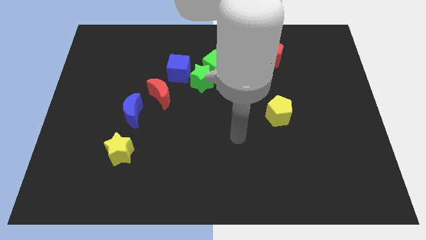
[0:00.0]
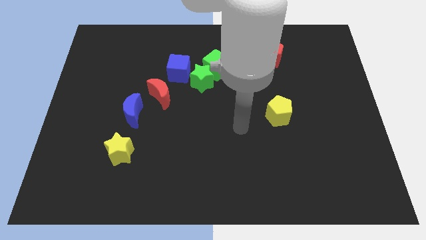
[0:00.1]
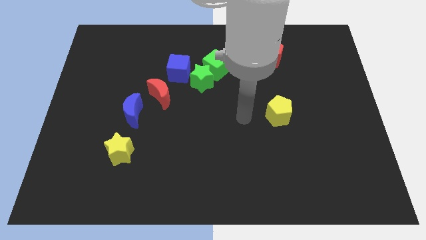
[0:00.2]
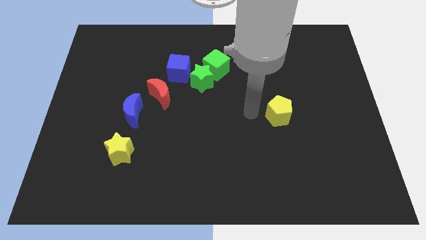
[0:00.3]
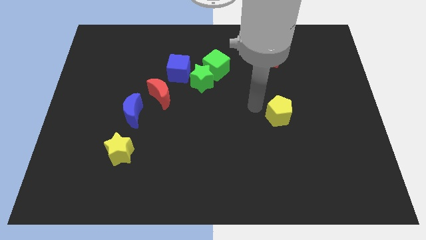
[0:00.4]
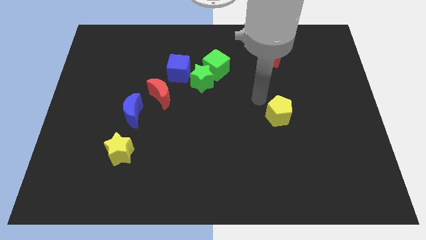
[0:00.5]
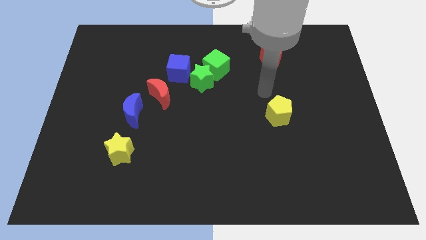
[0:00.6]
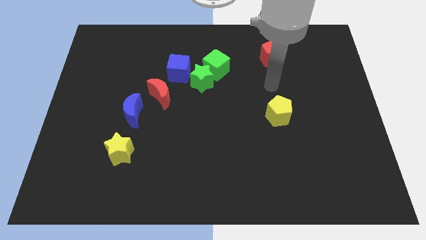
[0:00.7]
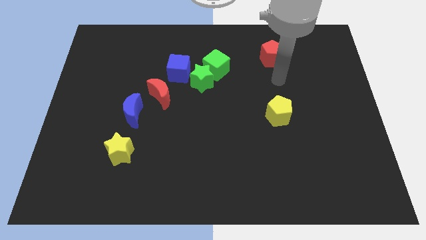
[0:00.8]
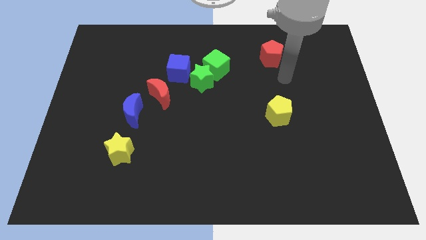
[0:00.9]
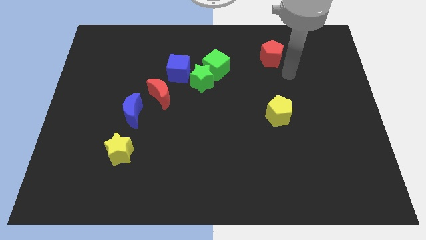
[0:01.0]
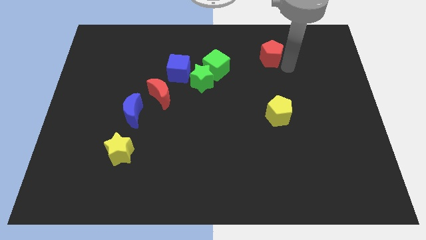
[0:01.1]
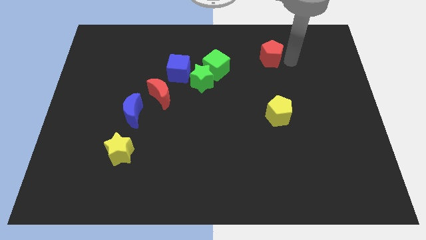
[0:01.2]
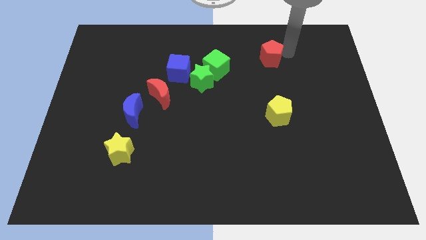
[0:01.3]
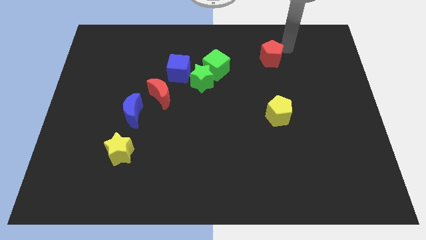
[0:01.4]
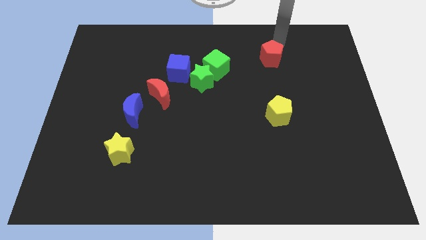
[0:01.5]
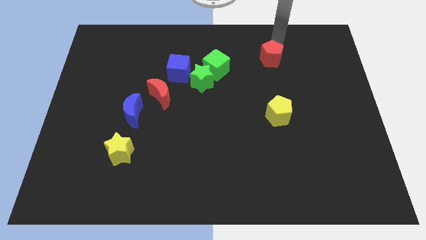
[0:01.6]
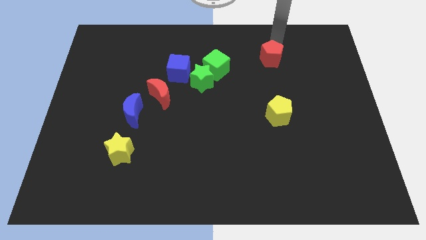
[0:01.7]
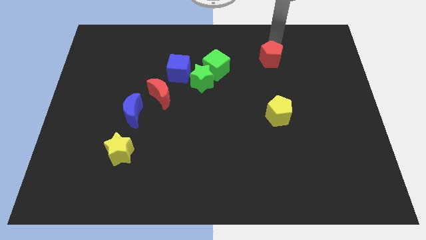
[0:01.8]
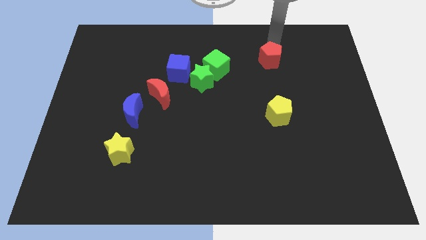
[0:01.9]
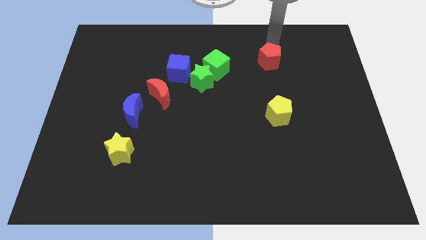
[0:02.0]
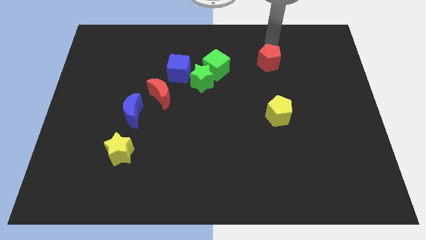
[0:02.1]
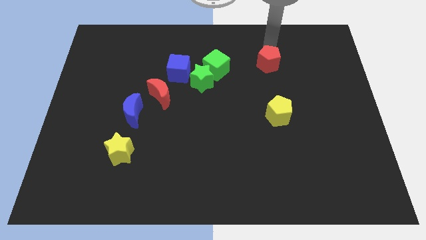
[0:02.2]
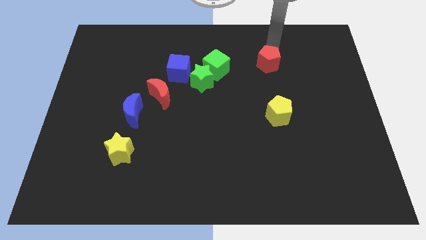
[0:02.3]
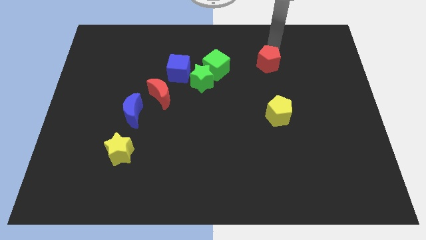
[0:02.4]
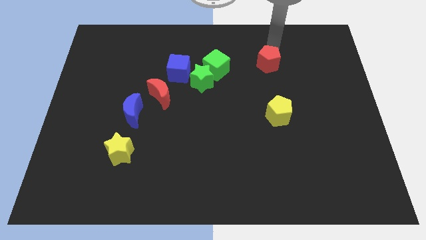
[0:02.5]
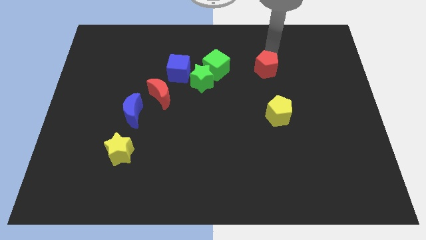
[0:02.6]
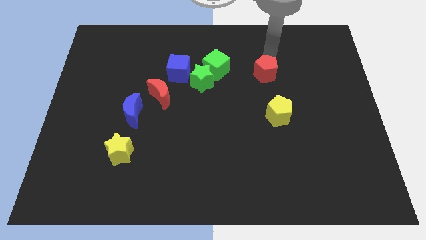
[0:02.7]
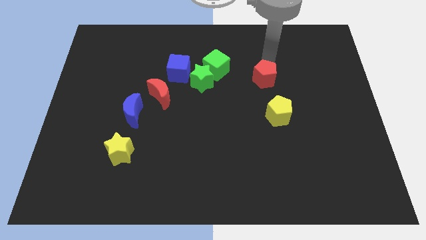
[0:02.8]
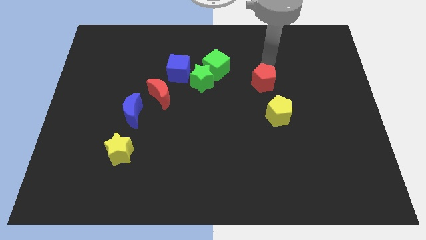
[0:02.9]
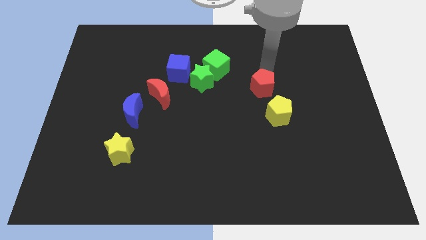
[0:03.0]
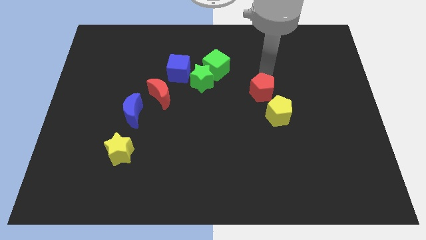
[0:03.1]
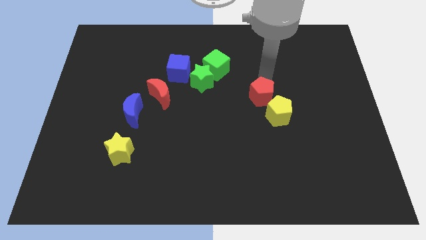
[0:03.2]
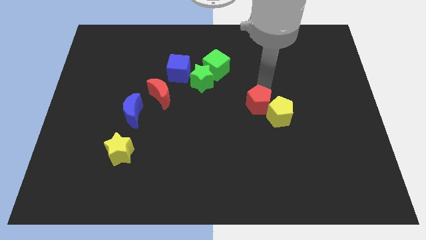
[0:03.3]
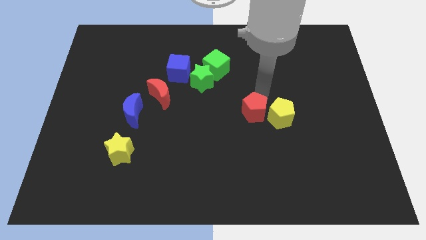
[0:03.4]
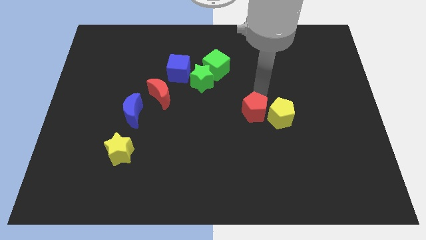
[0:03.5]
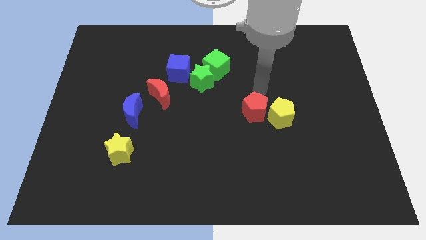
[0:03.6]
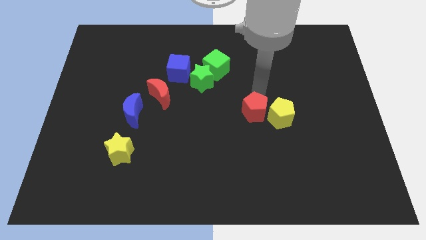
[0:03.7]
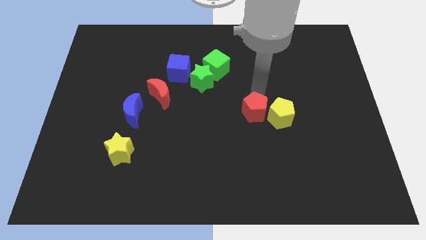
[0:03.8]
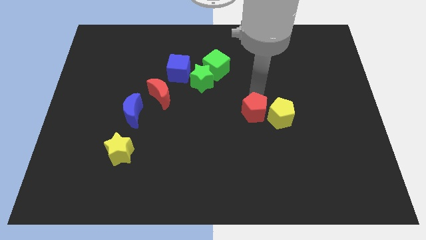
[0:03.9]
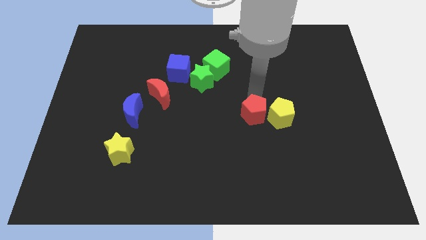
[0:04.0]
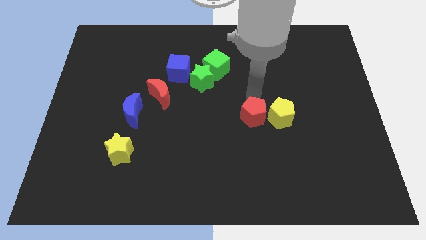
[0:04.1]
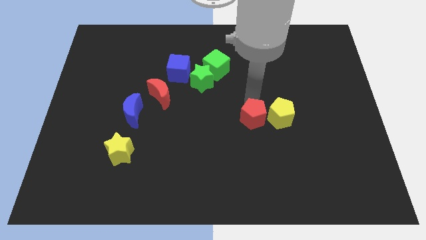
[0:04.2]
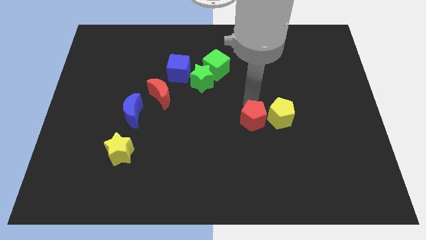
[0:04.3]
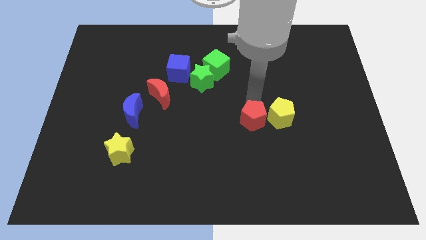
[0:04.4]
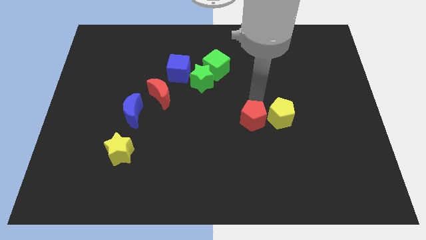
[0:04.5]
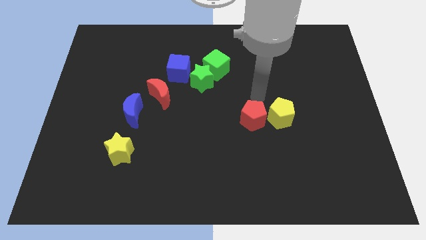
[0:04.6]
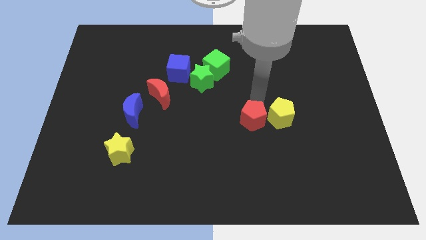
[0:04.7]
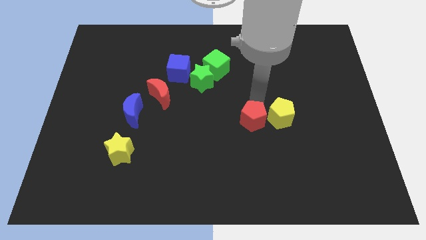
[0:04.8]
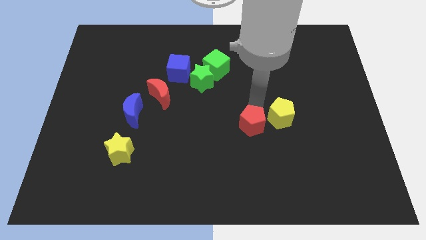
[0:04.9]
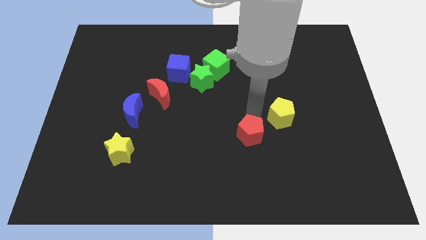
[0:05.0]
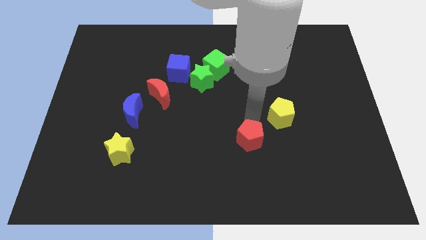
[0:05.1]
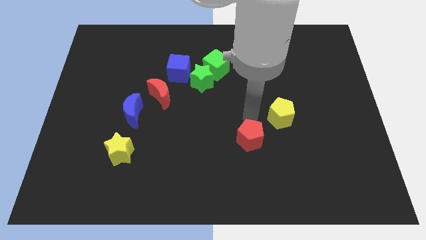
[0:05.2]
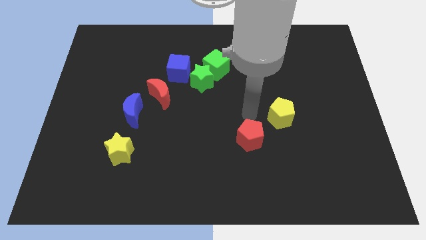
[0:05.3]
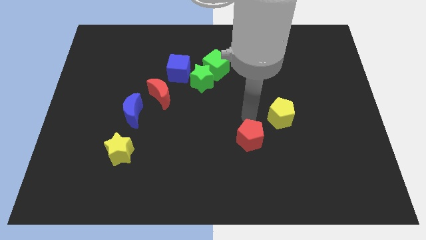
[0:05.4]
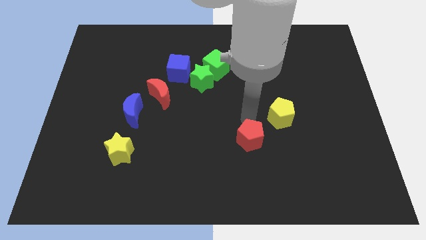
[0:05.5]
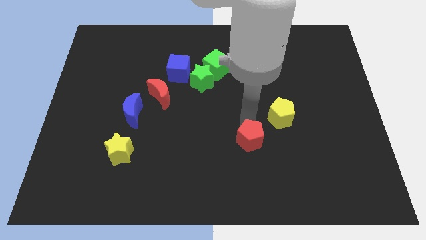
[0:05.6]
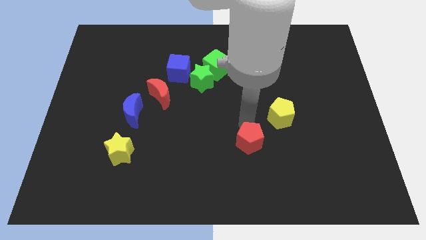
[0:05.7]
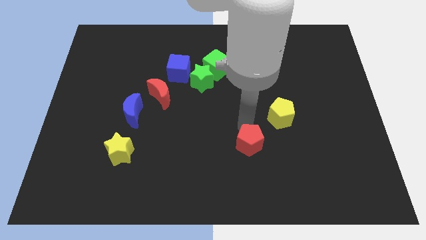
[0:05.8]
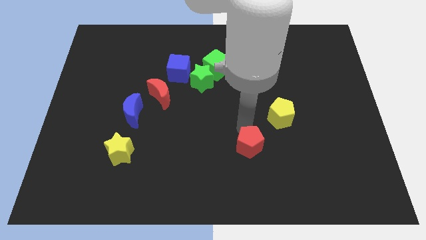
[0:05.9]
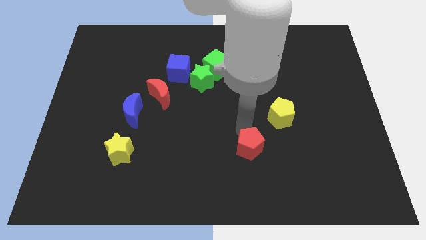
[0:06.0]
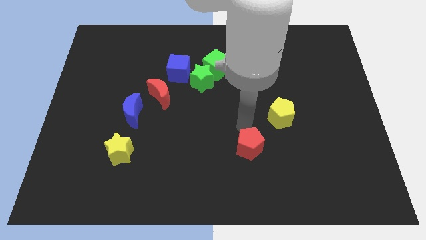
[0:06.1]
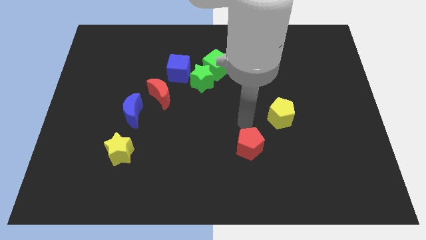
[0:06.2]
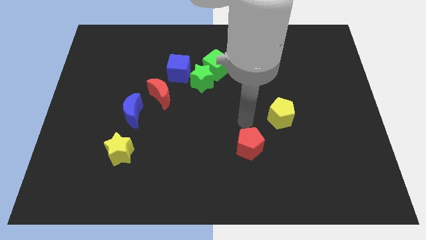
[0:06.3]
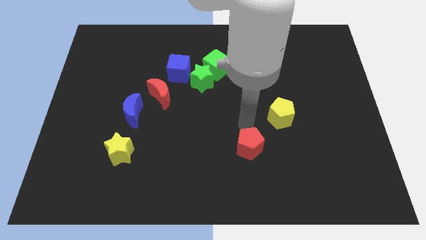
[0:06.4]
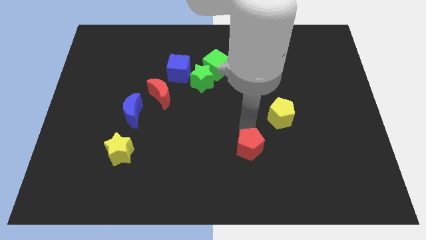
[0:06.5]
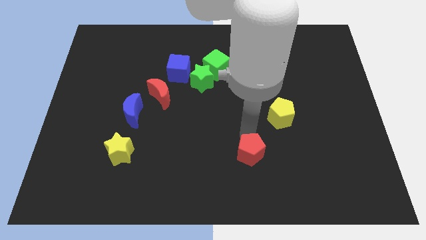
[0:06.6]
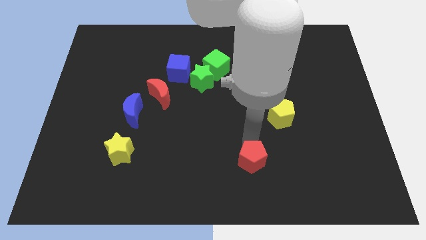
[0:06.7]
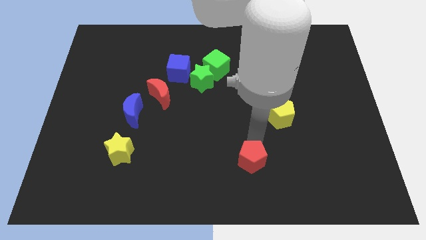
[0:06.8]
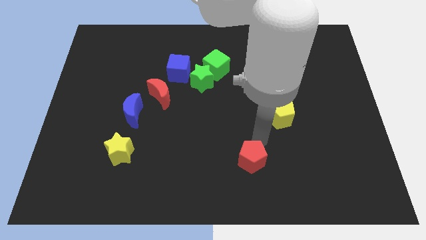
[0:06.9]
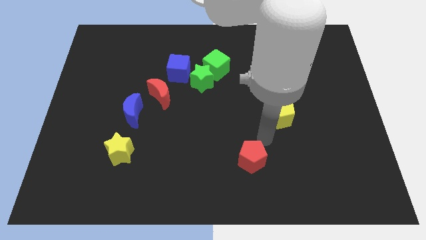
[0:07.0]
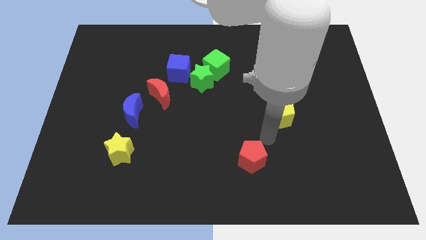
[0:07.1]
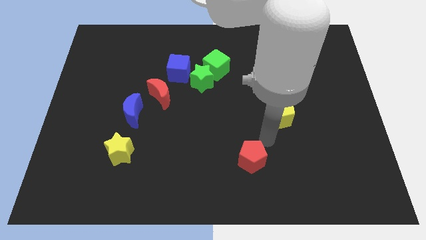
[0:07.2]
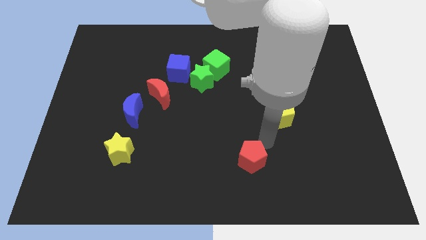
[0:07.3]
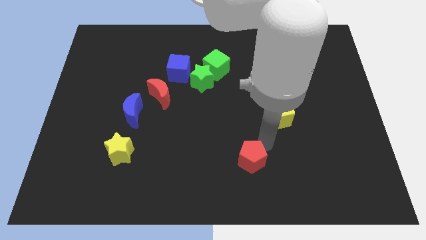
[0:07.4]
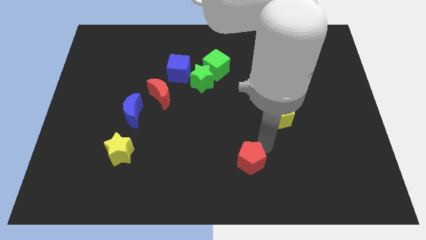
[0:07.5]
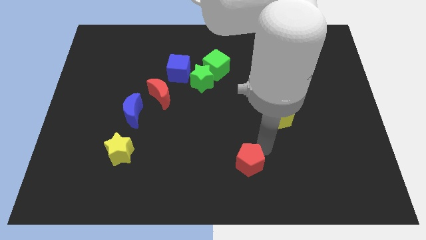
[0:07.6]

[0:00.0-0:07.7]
put the red pentagon to the bottom

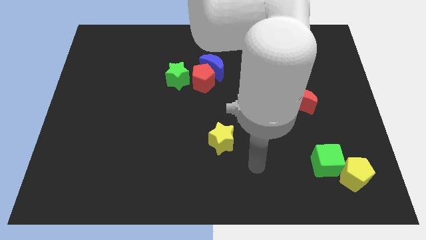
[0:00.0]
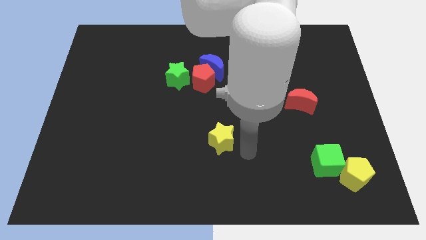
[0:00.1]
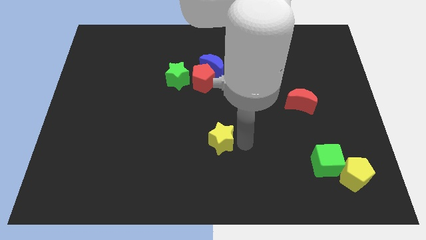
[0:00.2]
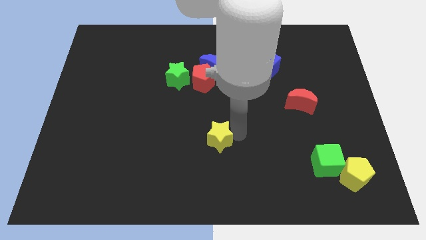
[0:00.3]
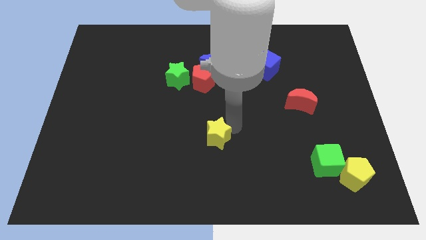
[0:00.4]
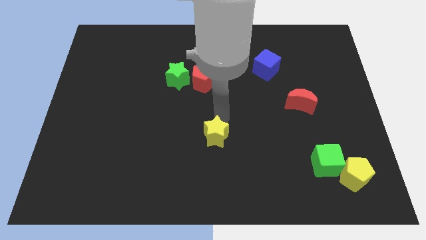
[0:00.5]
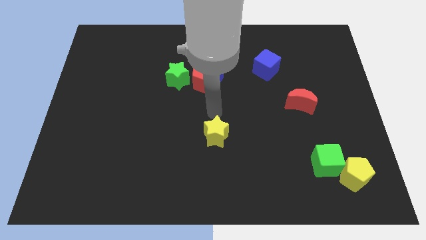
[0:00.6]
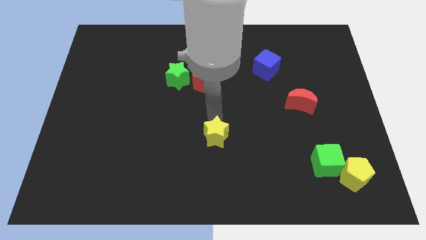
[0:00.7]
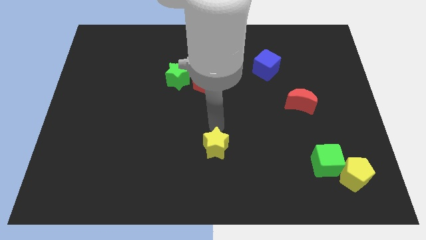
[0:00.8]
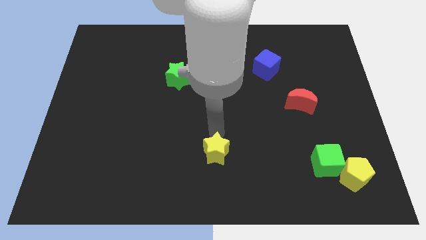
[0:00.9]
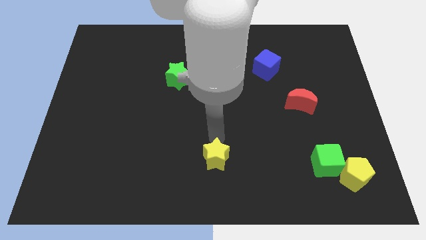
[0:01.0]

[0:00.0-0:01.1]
slide the yellow star to the bottom
